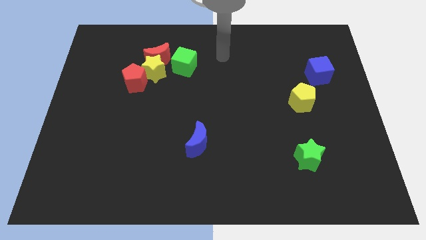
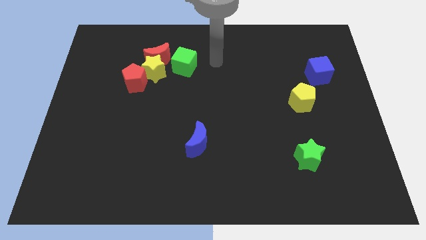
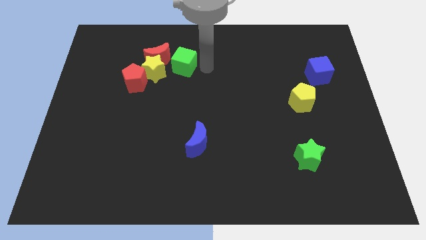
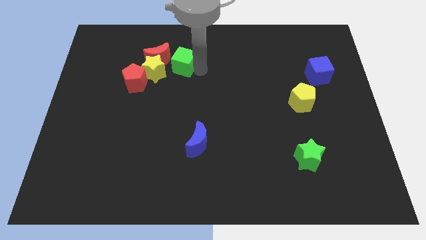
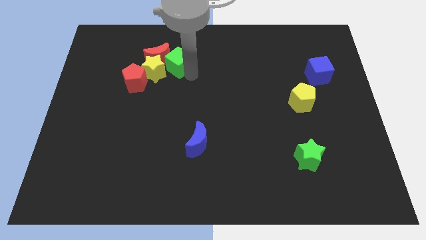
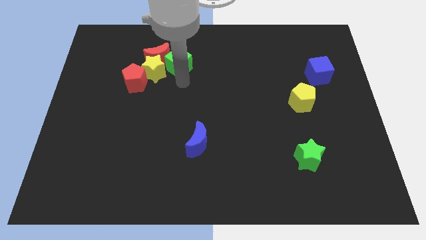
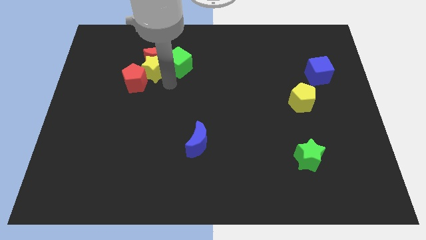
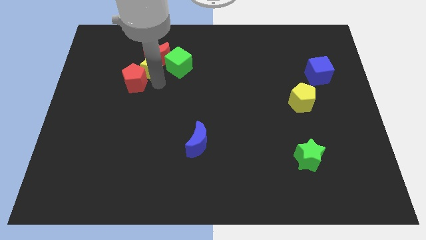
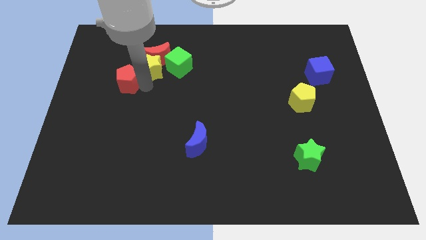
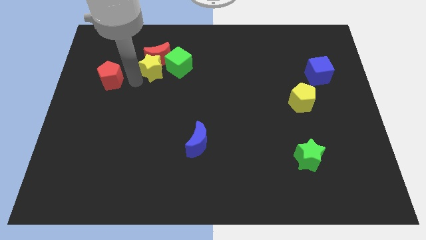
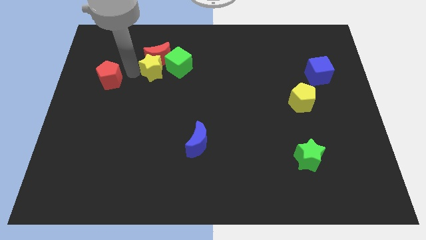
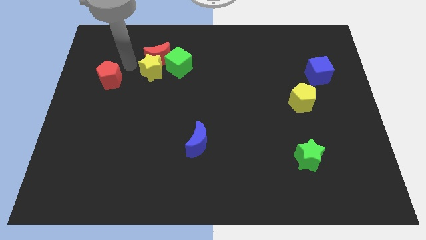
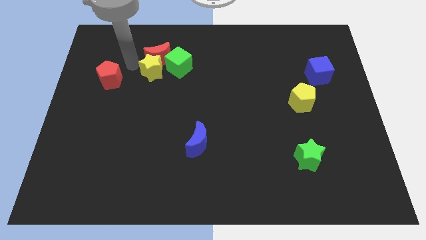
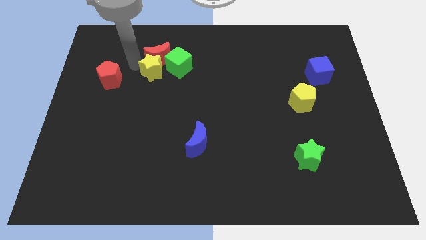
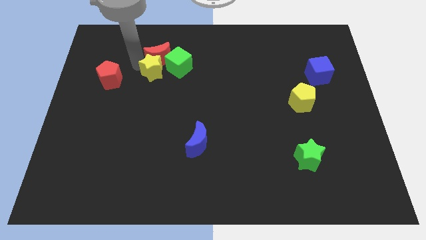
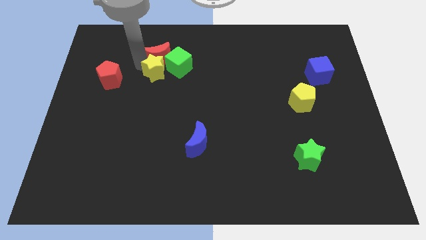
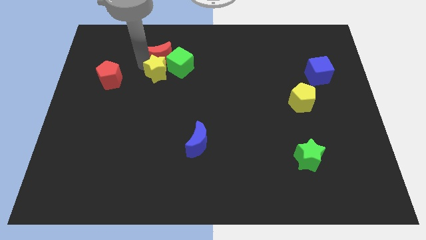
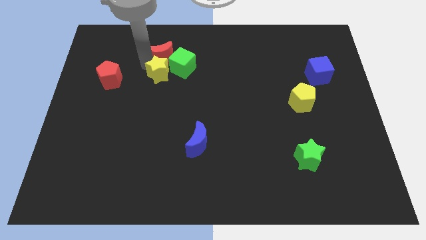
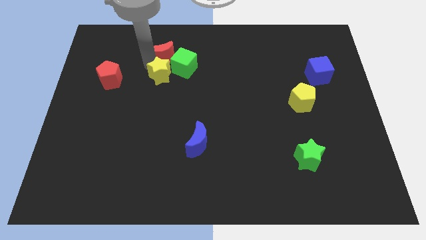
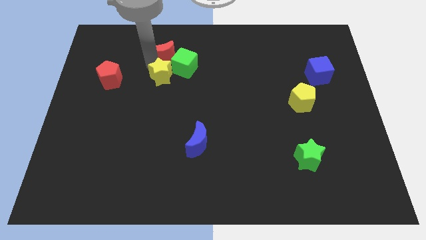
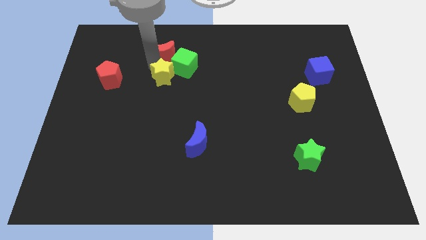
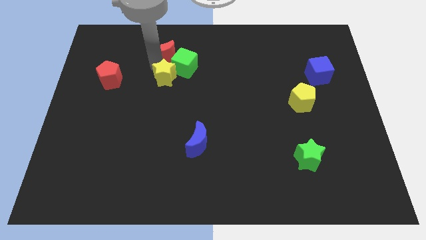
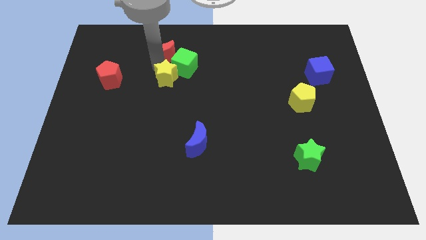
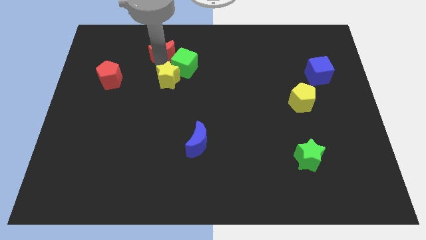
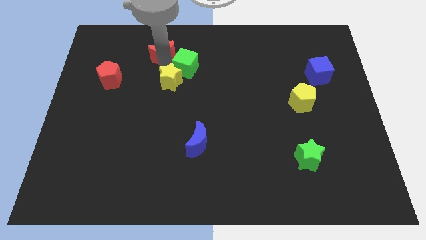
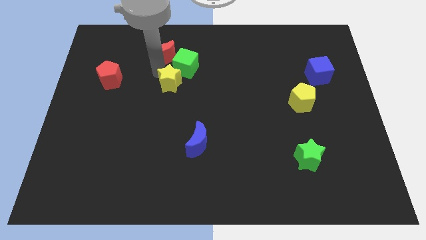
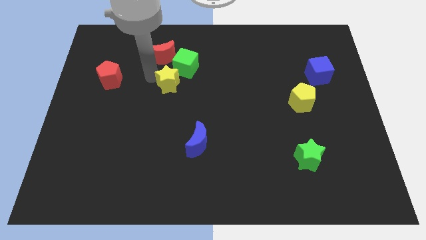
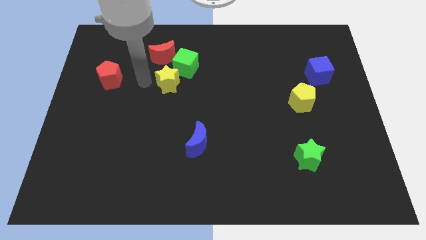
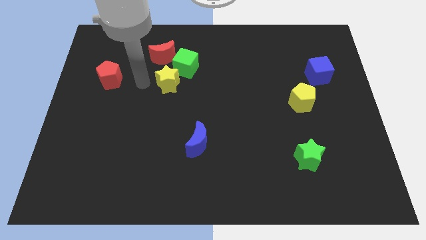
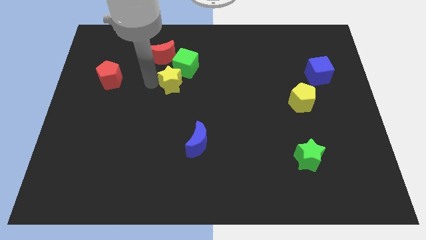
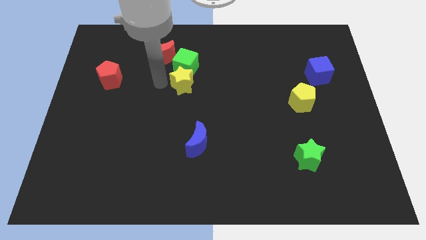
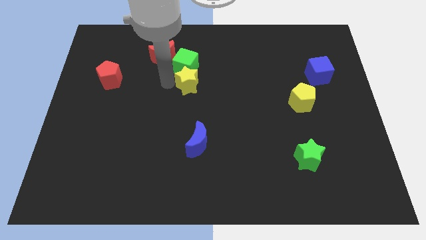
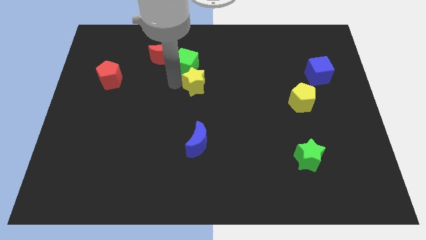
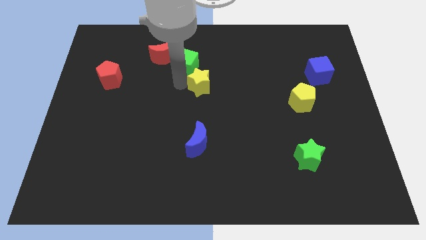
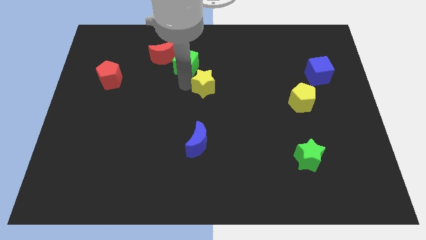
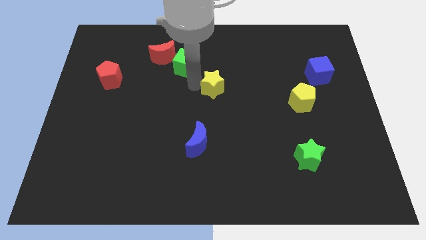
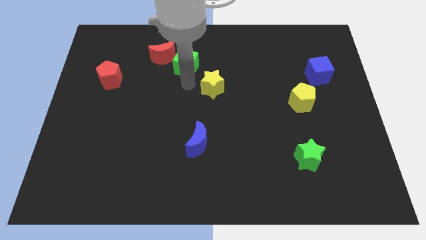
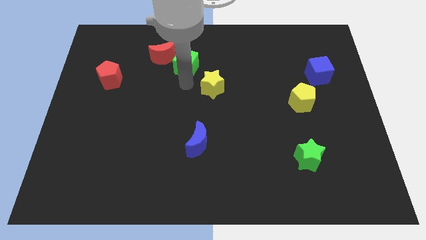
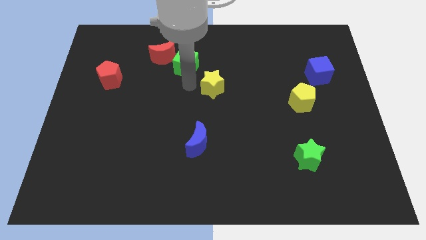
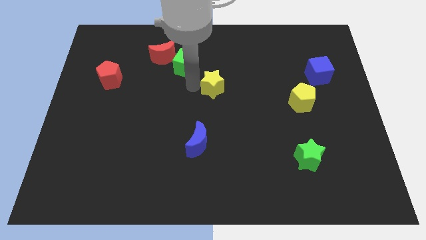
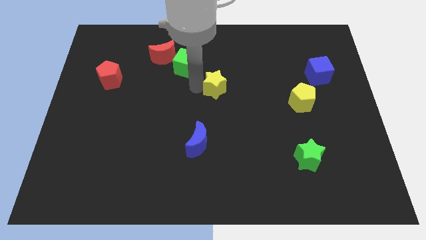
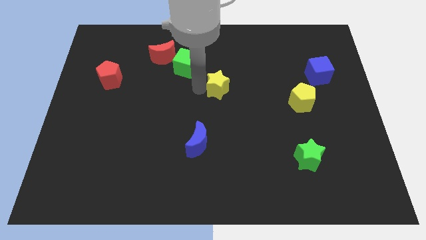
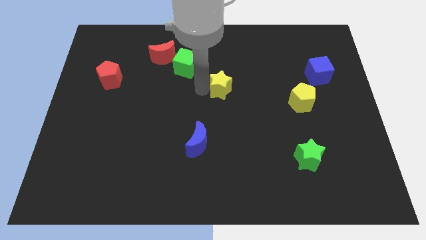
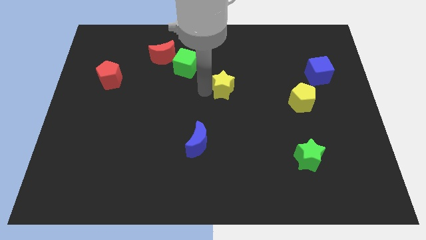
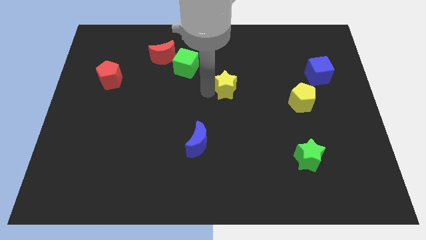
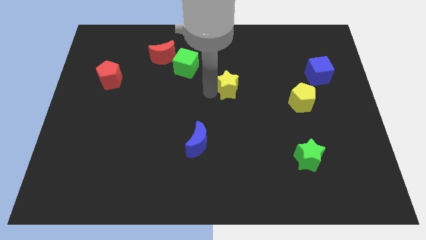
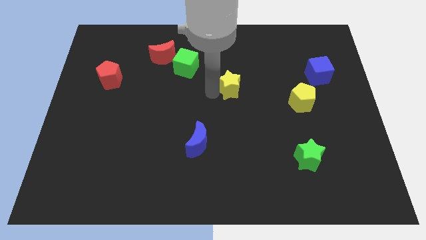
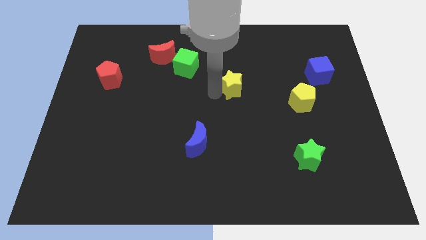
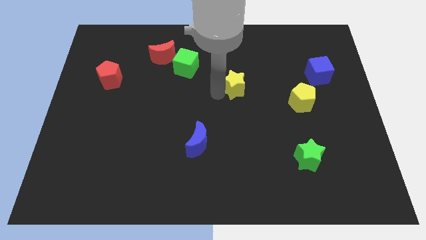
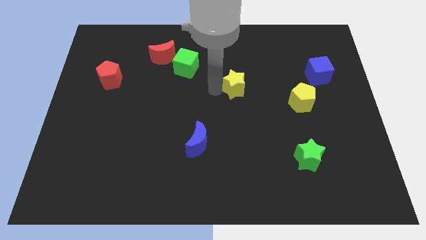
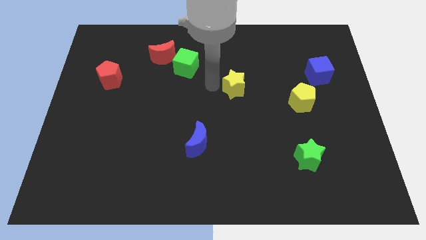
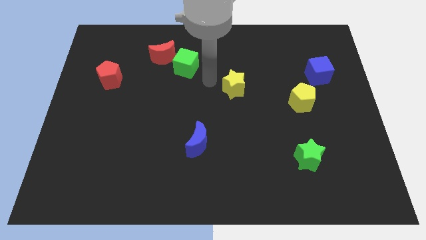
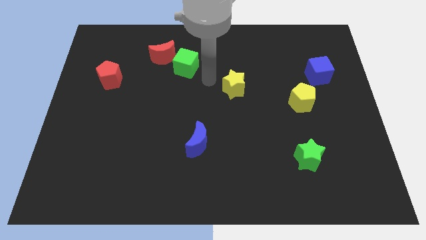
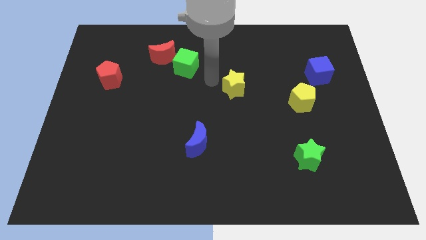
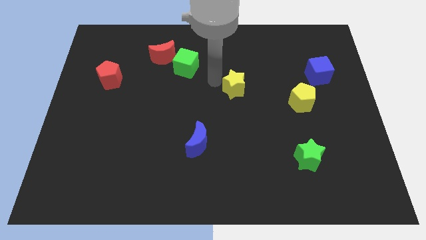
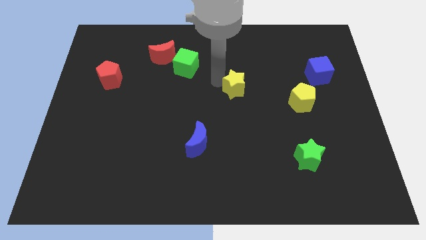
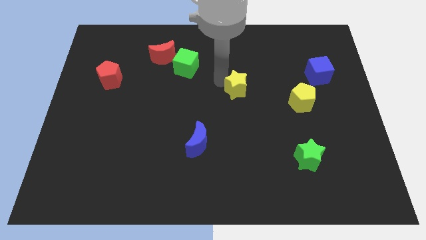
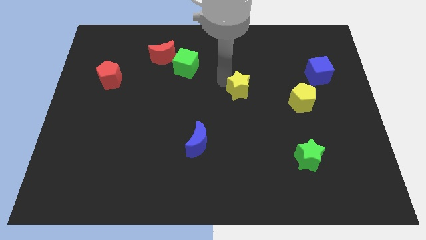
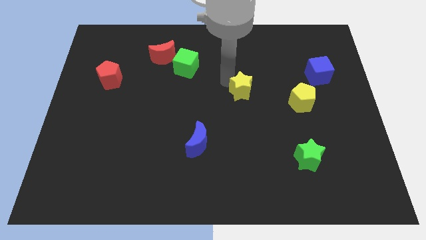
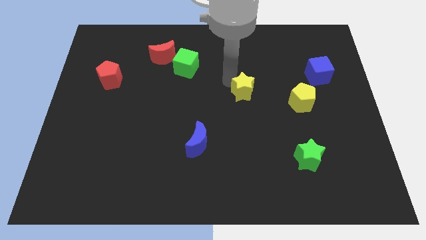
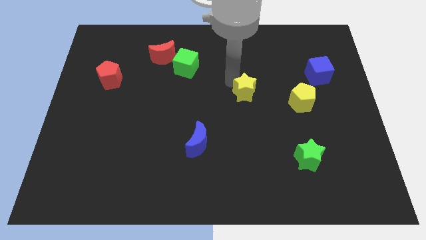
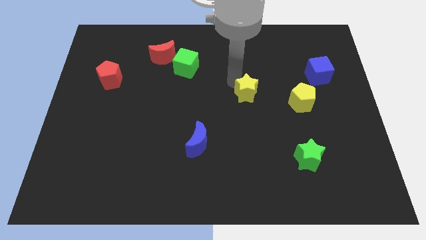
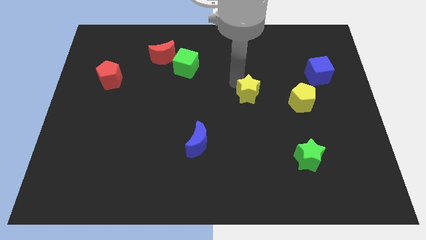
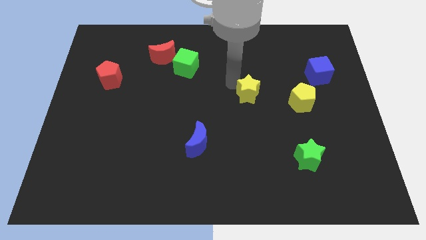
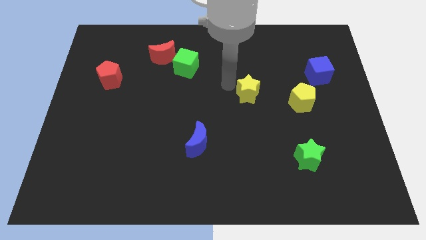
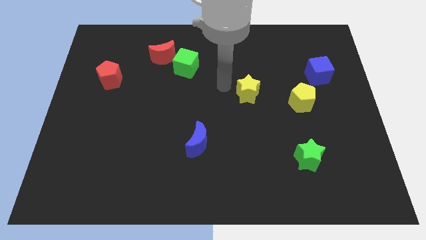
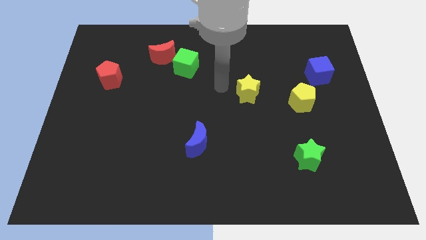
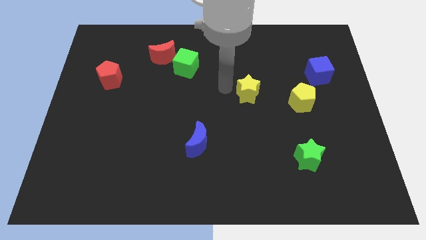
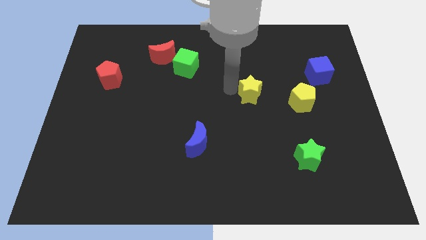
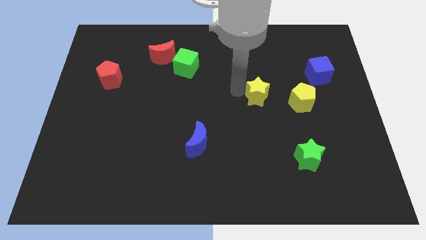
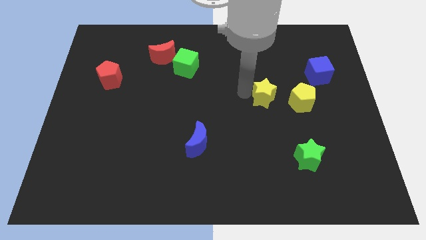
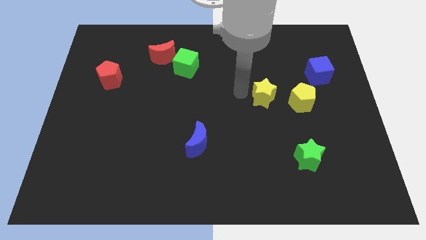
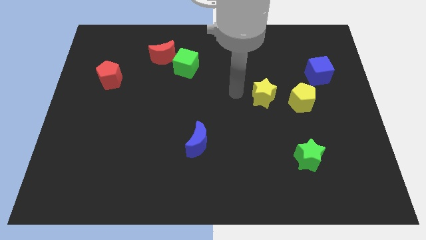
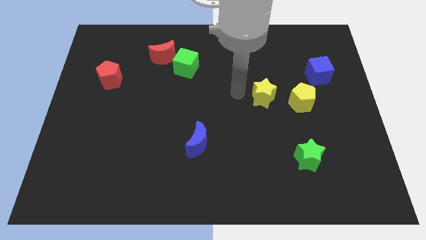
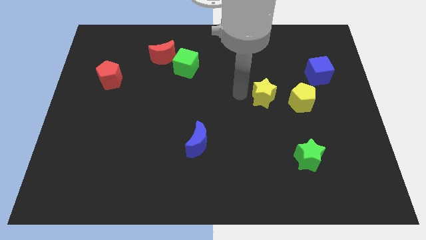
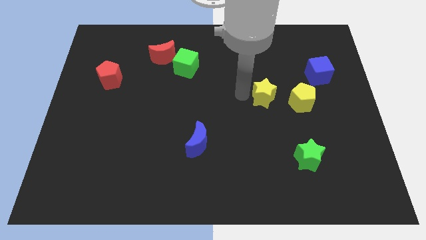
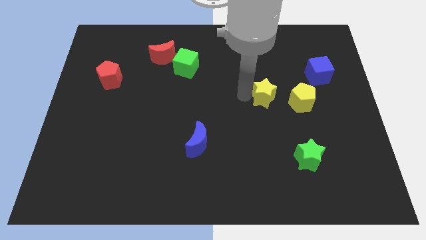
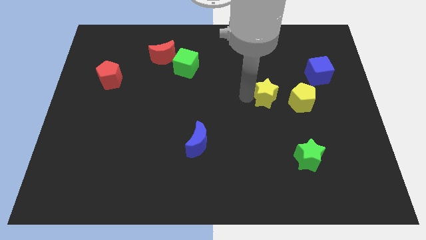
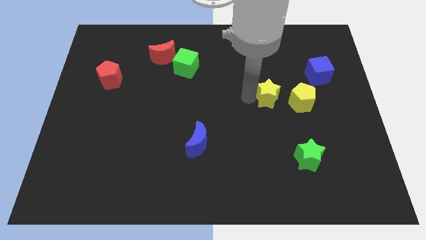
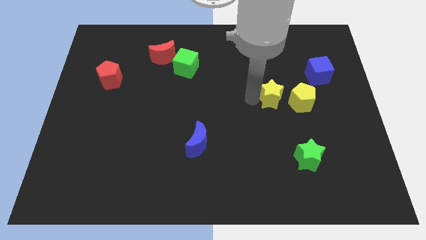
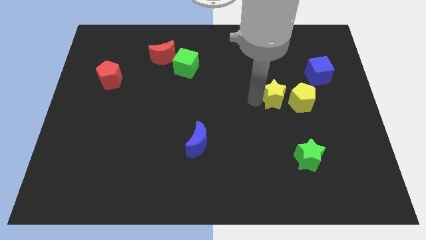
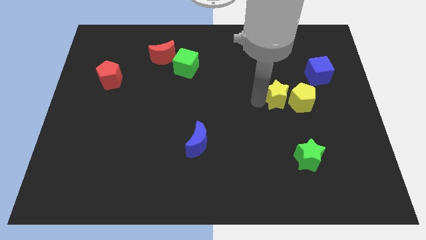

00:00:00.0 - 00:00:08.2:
put the yellow star next to the yellow pentagon
